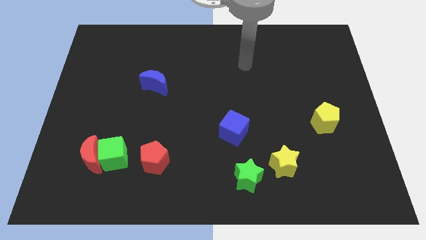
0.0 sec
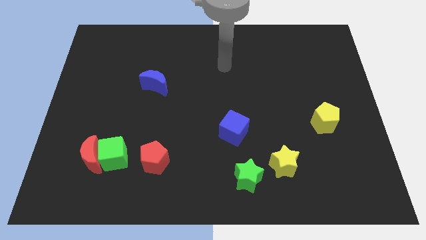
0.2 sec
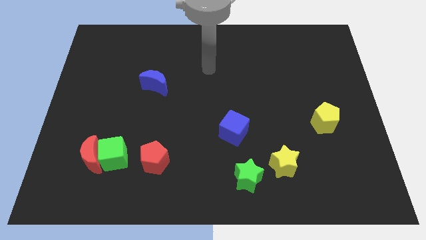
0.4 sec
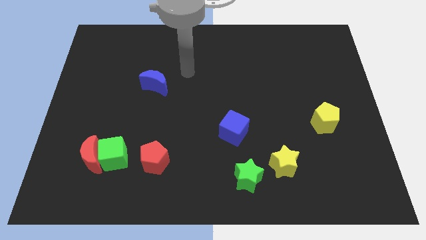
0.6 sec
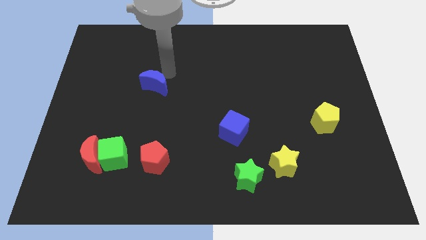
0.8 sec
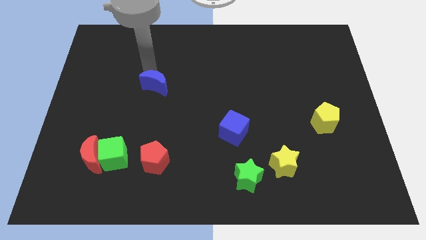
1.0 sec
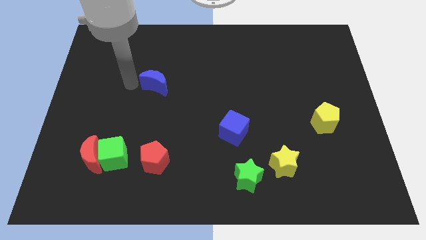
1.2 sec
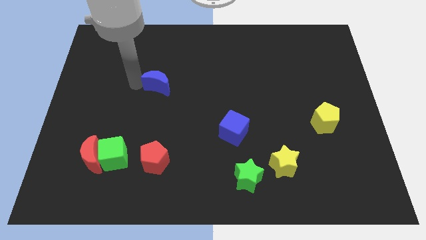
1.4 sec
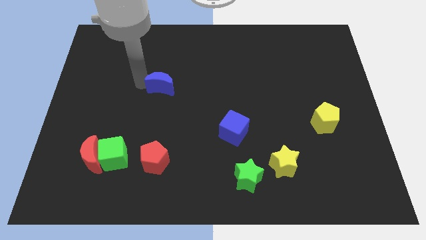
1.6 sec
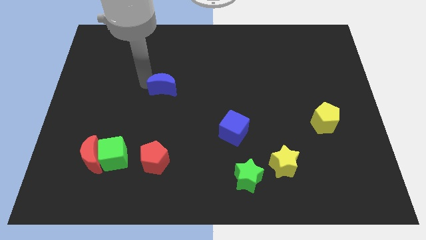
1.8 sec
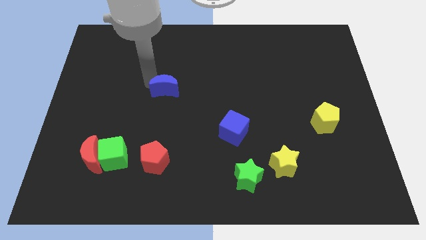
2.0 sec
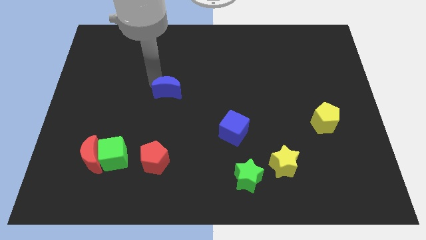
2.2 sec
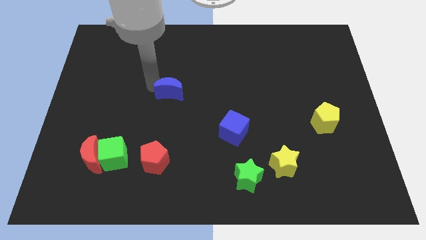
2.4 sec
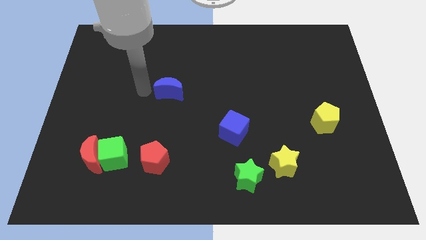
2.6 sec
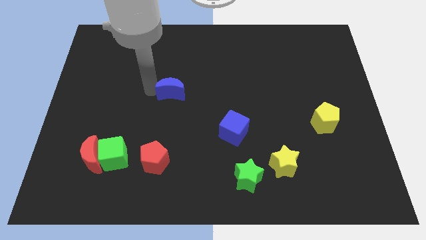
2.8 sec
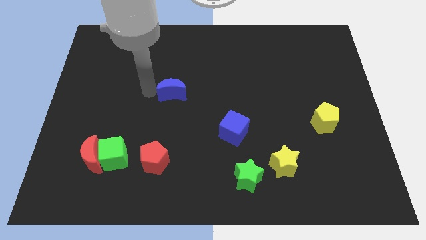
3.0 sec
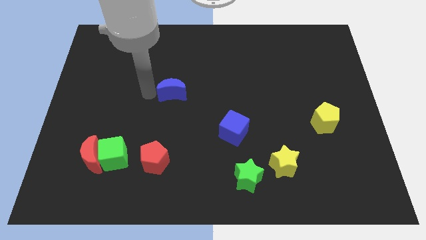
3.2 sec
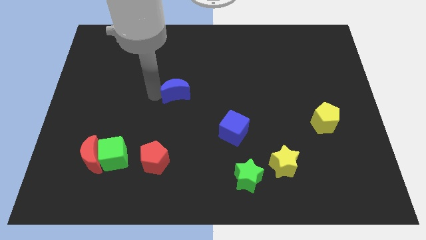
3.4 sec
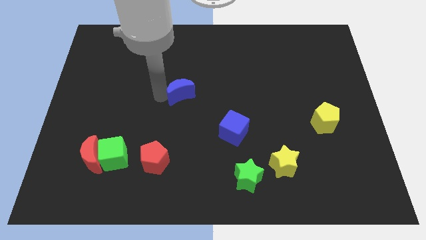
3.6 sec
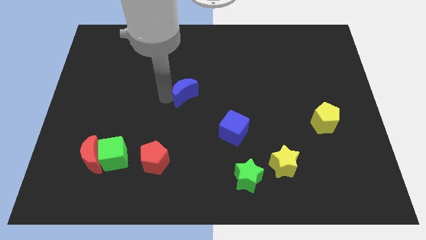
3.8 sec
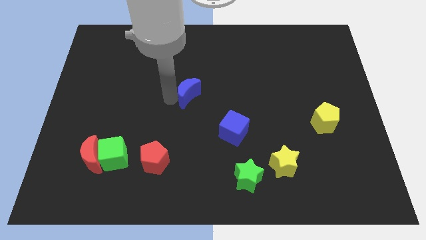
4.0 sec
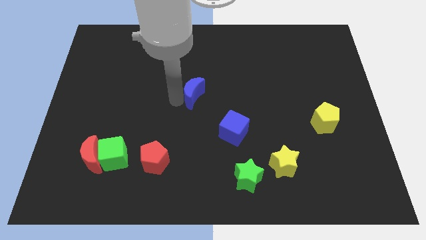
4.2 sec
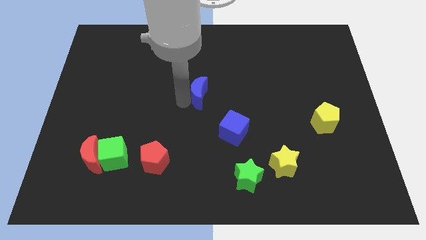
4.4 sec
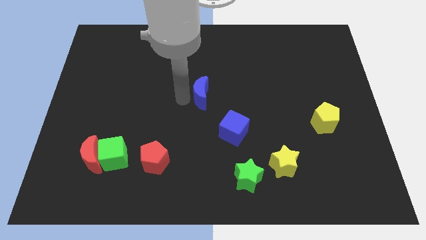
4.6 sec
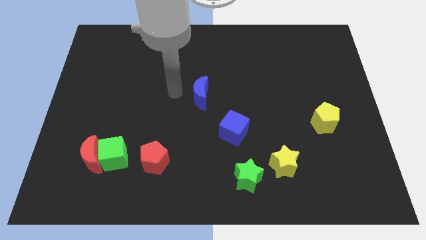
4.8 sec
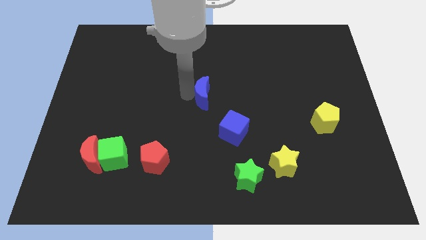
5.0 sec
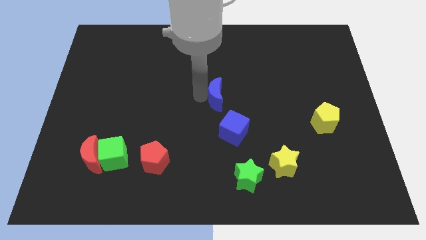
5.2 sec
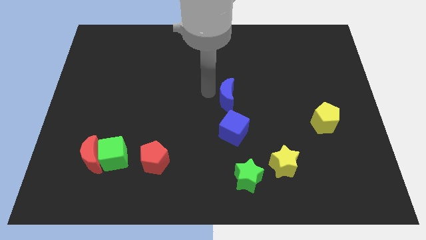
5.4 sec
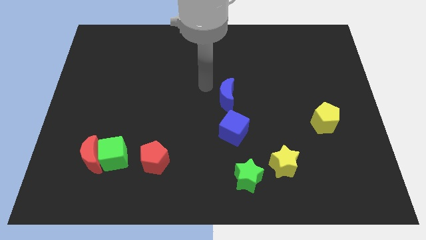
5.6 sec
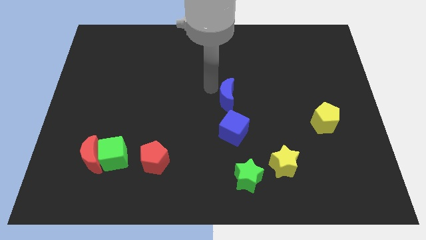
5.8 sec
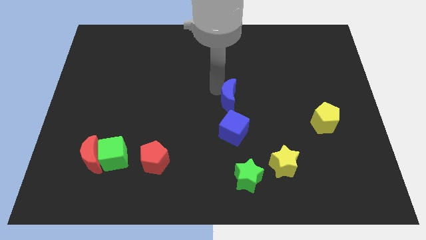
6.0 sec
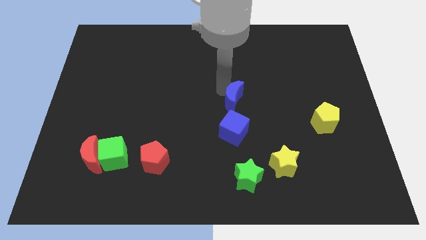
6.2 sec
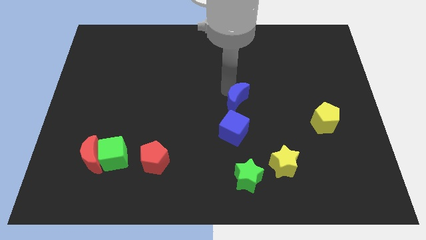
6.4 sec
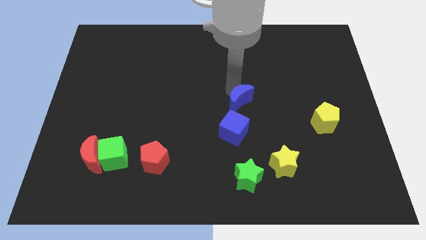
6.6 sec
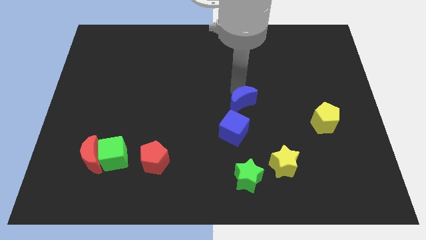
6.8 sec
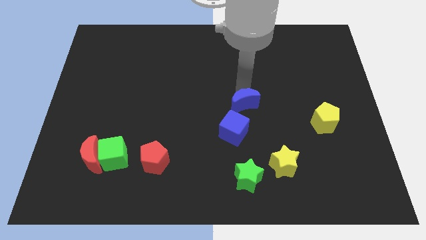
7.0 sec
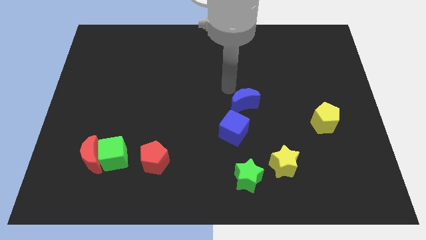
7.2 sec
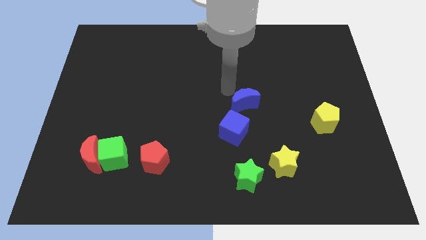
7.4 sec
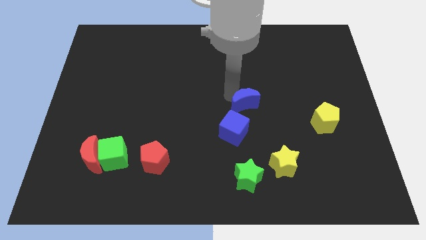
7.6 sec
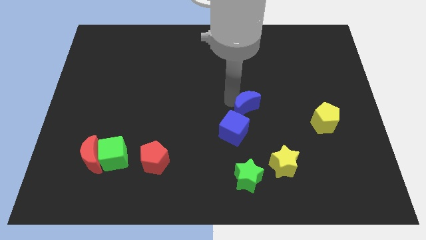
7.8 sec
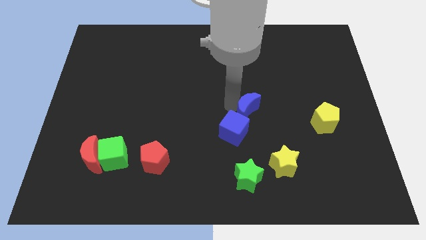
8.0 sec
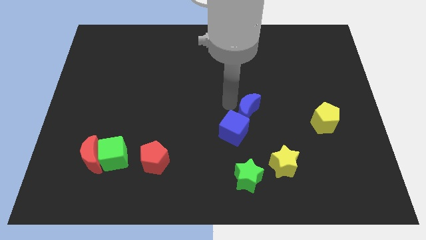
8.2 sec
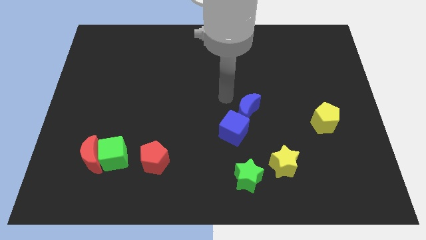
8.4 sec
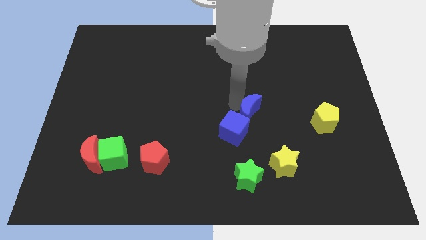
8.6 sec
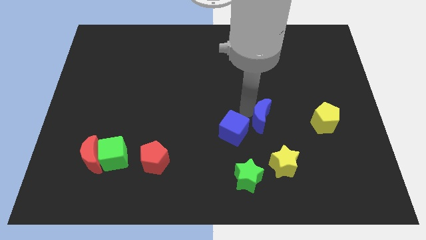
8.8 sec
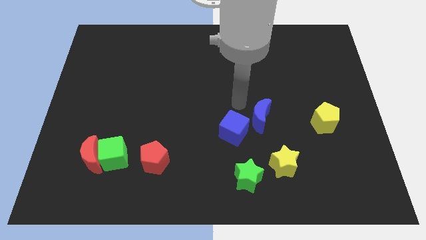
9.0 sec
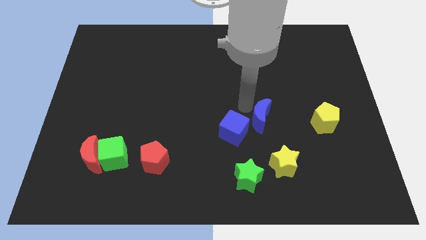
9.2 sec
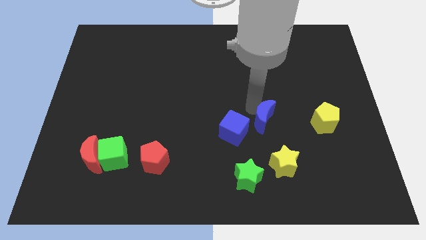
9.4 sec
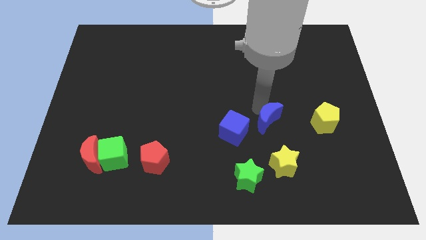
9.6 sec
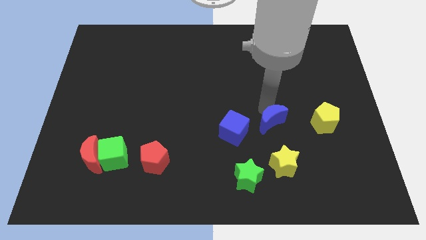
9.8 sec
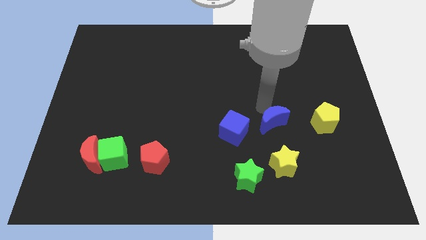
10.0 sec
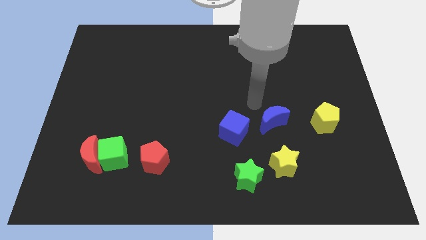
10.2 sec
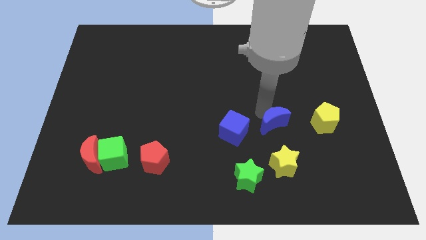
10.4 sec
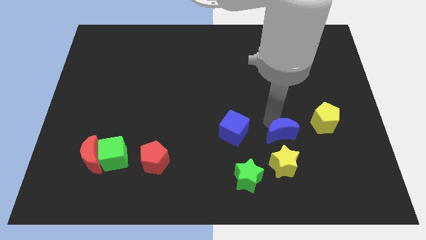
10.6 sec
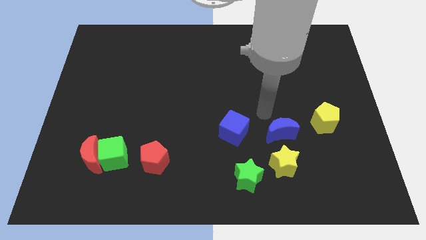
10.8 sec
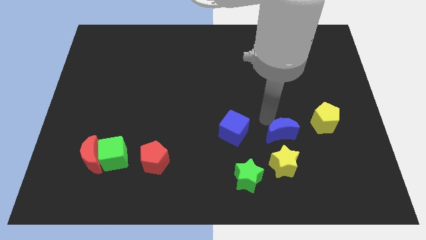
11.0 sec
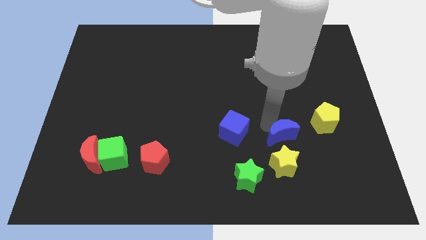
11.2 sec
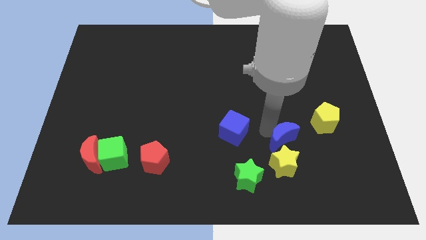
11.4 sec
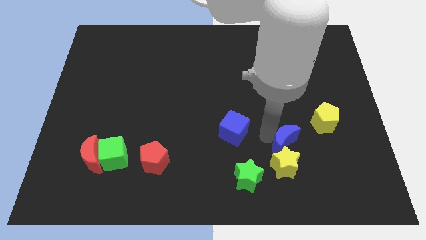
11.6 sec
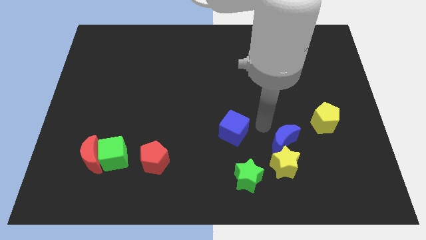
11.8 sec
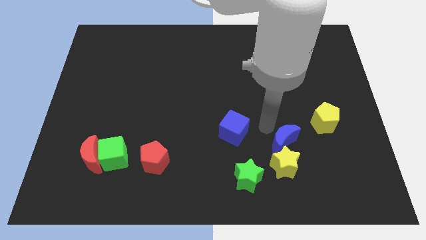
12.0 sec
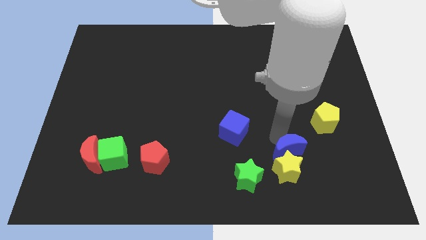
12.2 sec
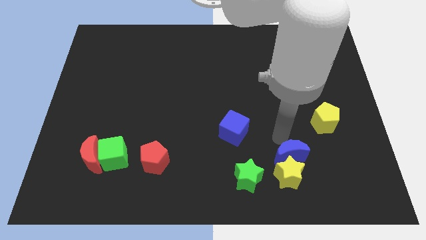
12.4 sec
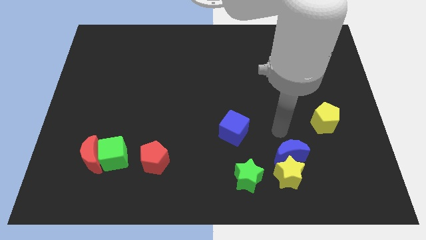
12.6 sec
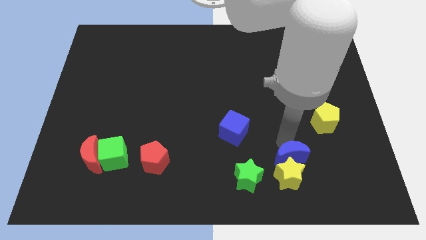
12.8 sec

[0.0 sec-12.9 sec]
push the blue moon to the right of the green star
